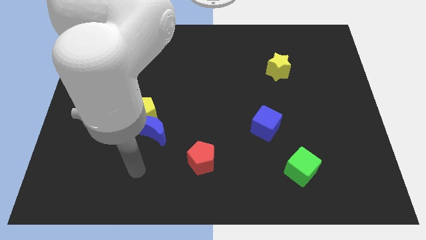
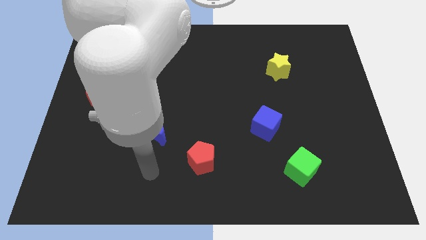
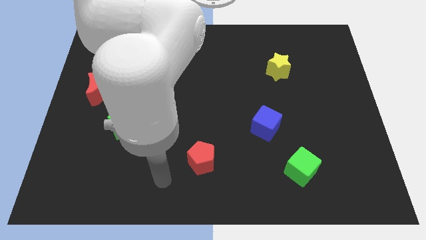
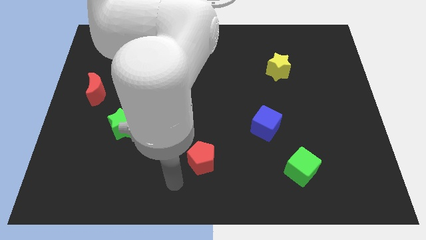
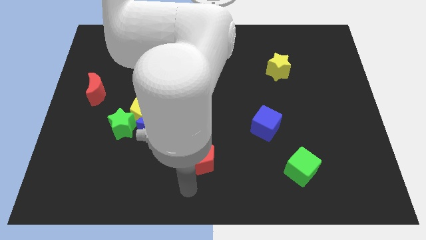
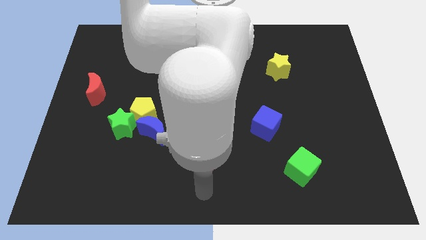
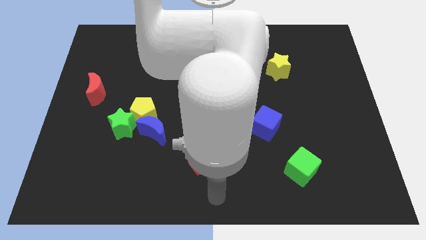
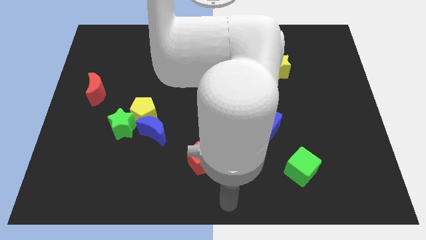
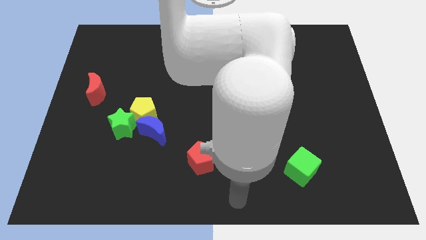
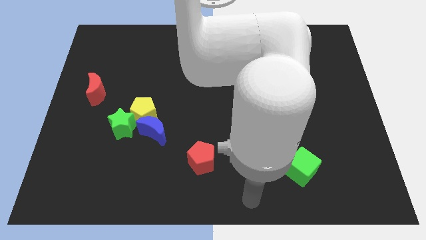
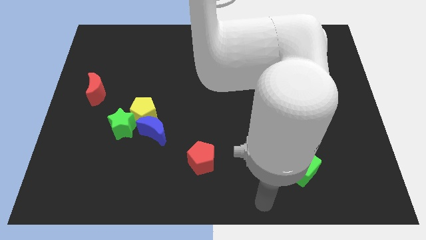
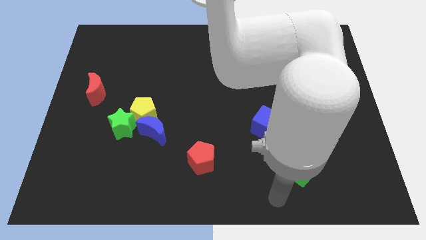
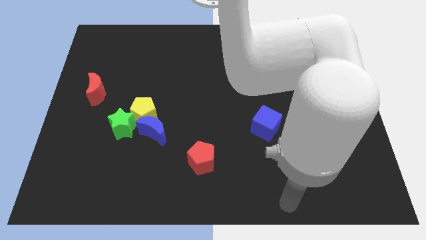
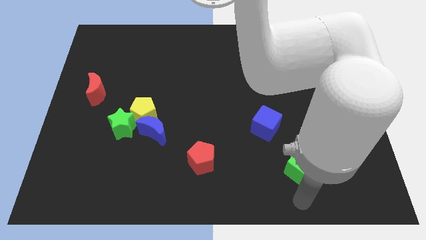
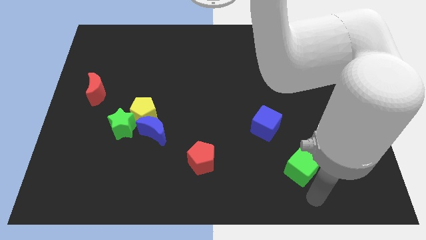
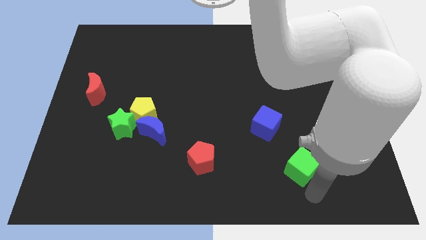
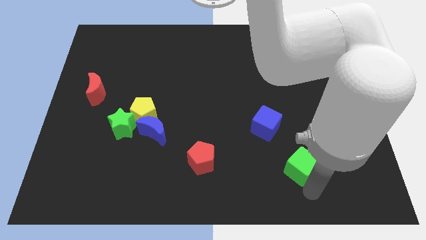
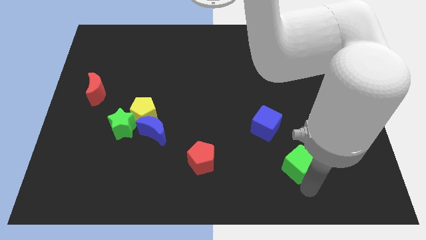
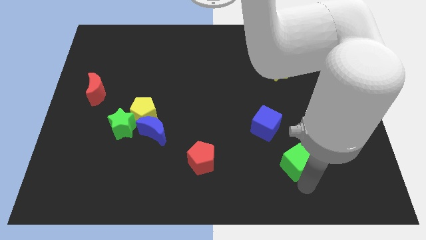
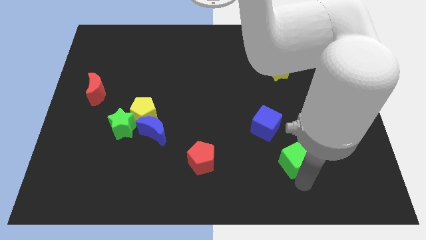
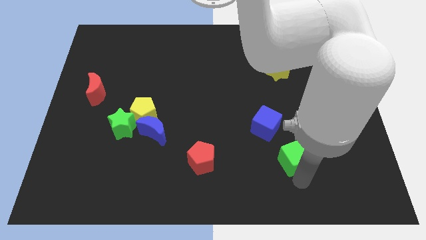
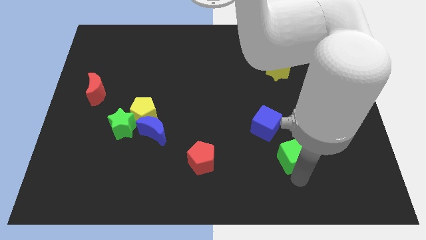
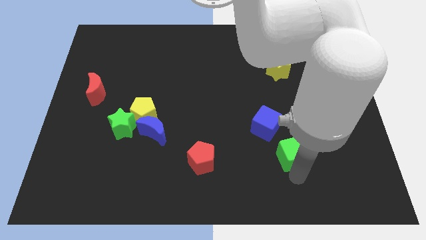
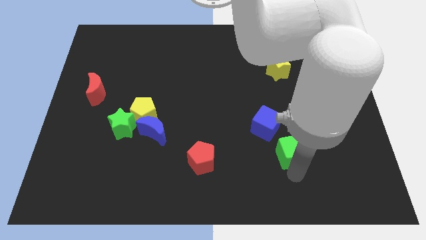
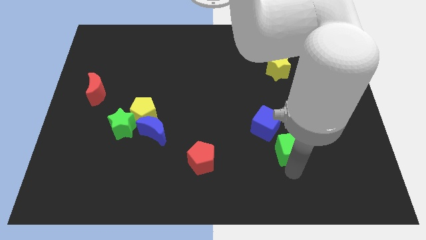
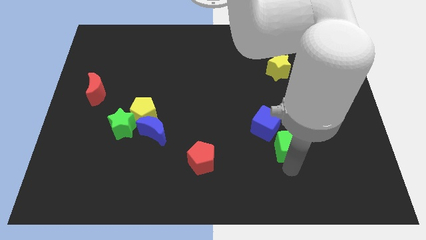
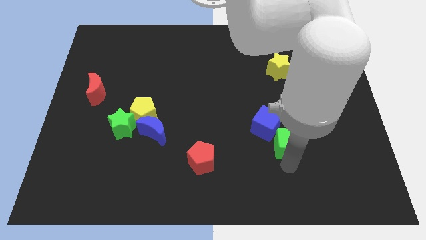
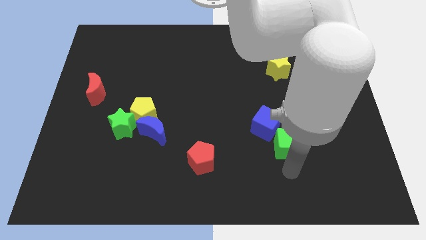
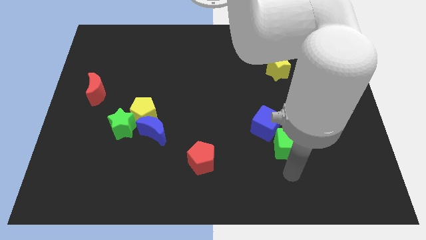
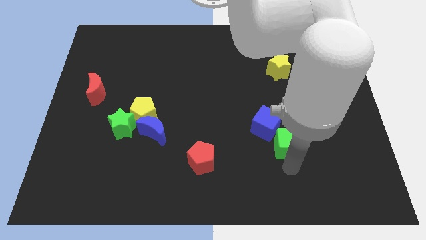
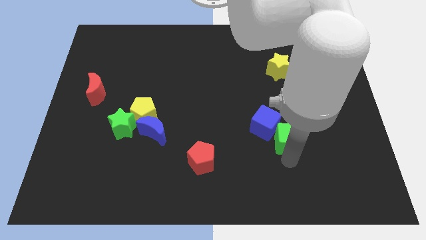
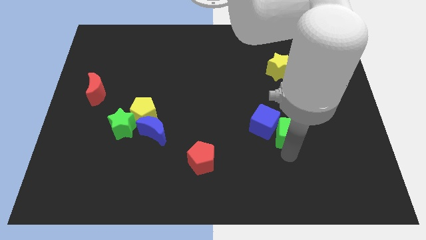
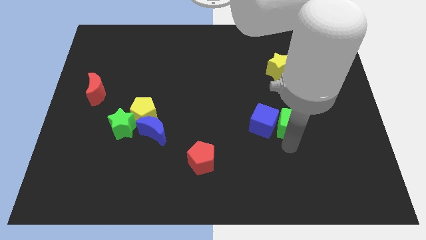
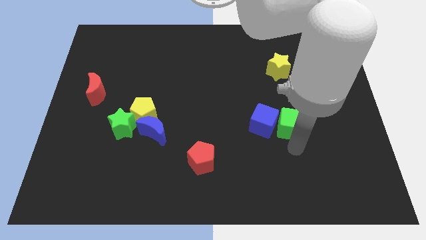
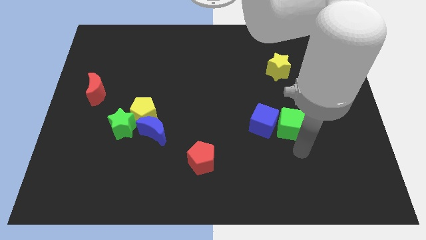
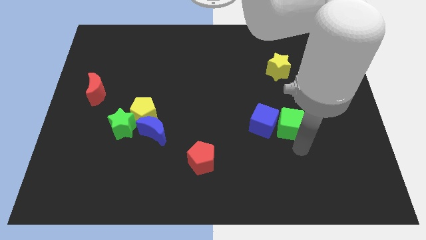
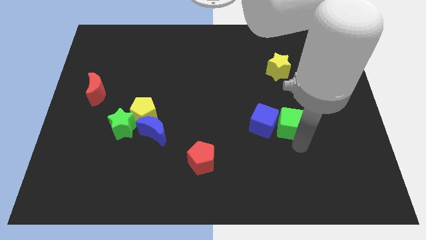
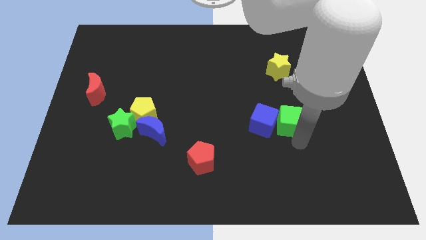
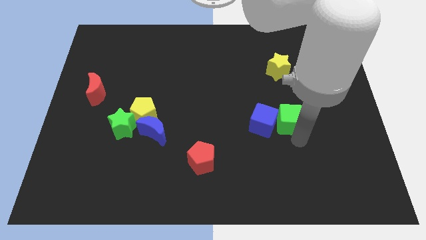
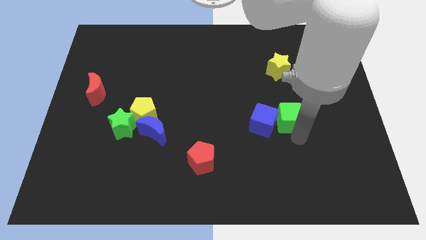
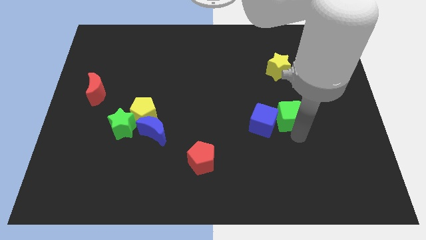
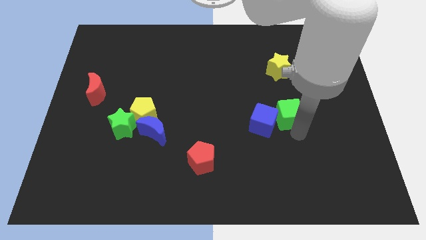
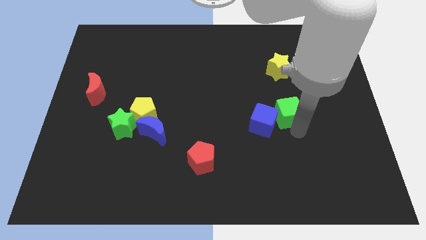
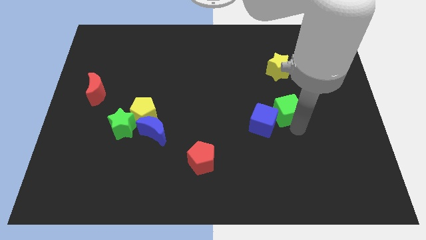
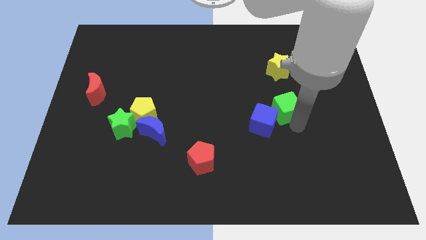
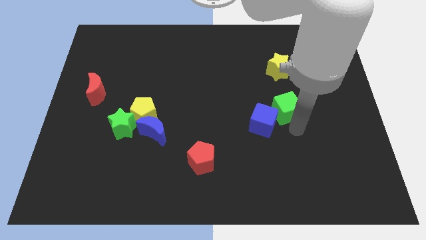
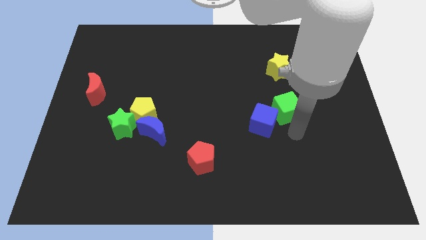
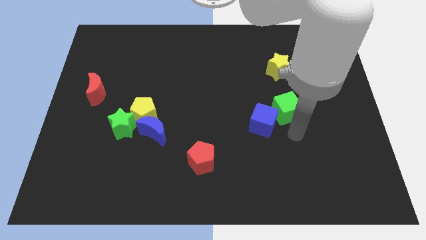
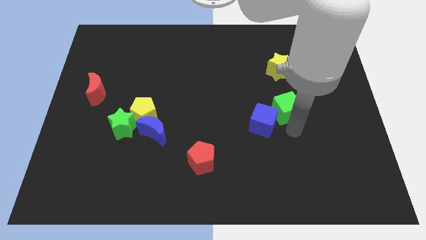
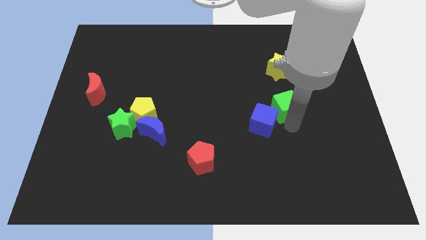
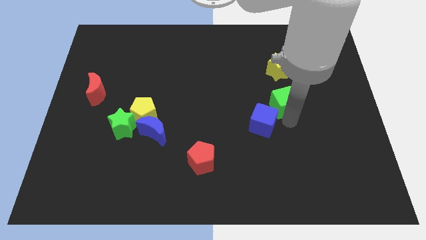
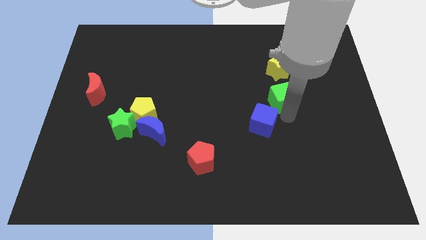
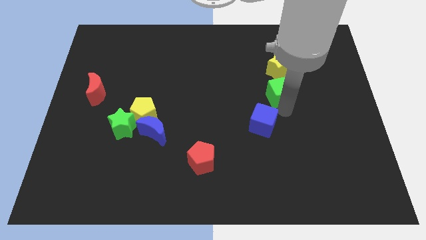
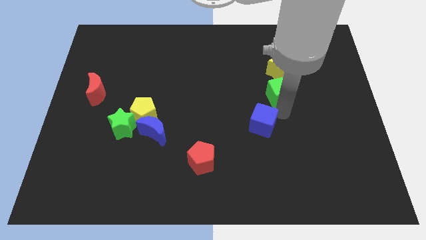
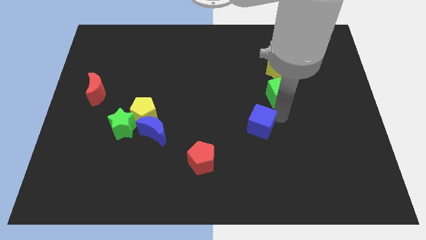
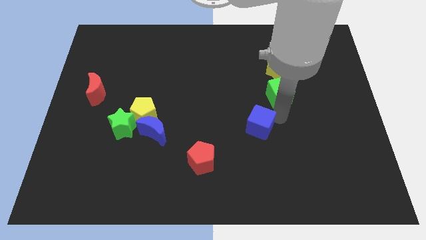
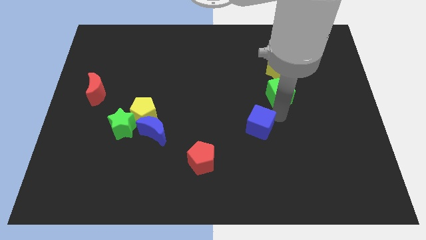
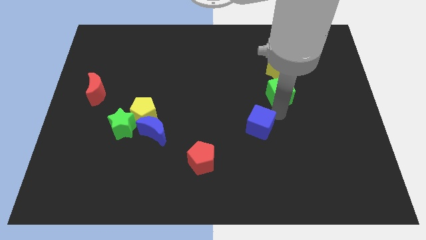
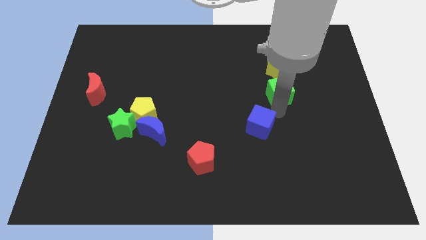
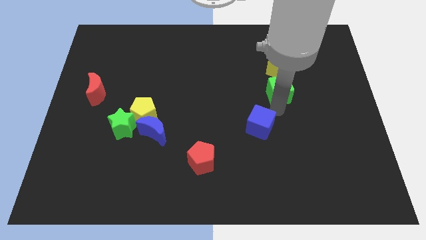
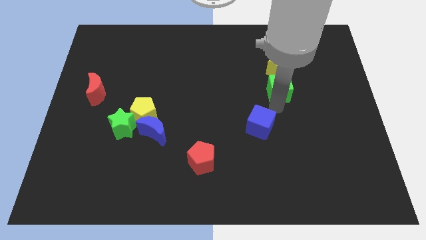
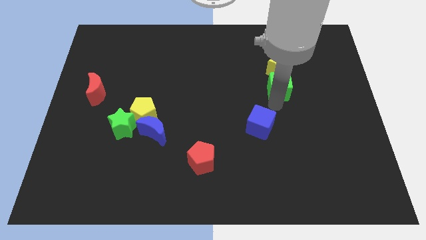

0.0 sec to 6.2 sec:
push the green cube towards the yellow star
